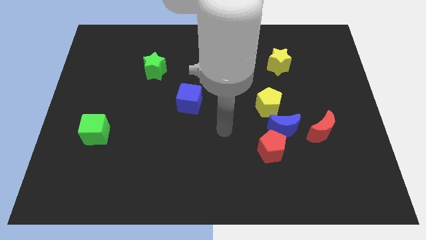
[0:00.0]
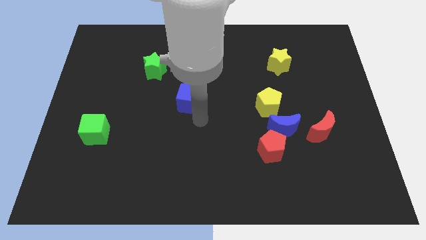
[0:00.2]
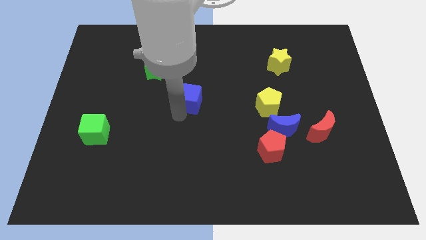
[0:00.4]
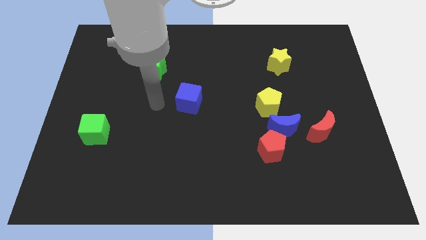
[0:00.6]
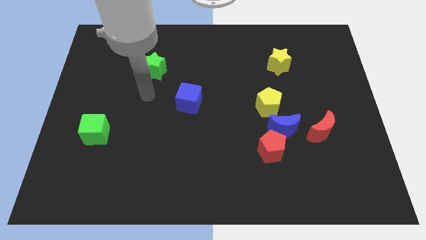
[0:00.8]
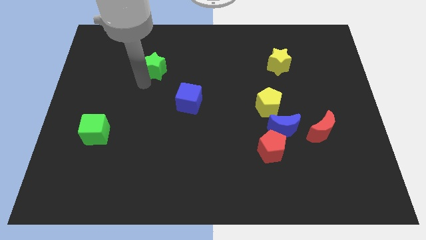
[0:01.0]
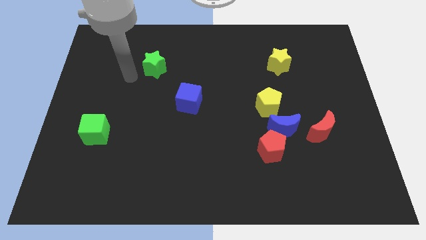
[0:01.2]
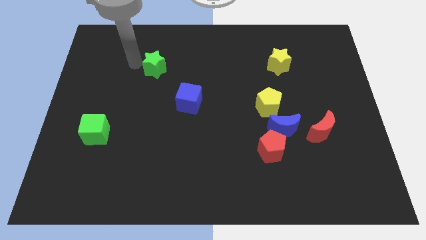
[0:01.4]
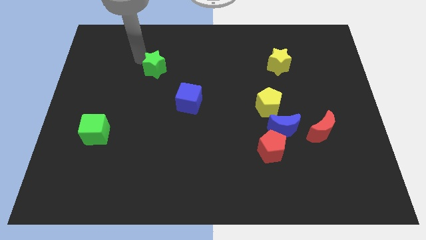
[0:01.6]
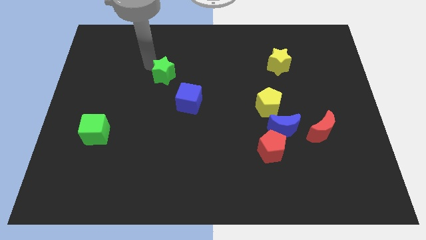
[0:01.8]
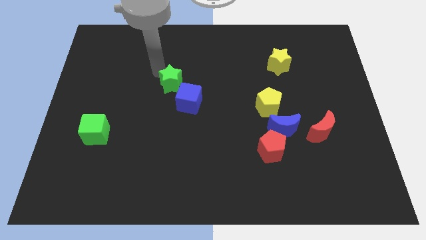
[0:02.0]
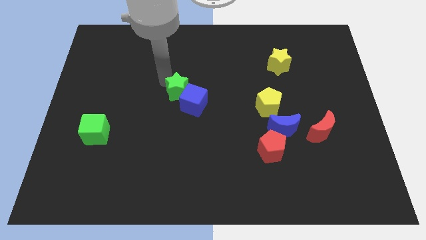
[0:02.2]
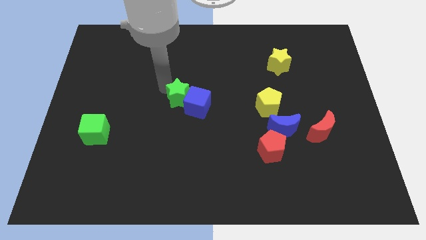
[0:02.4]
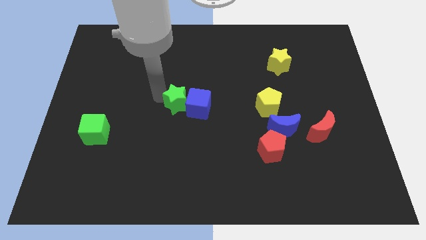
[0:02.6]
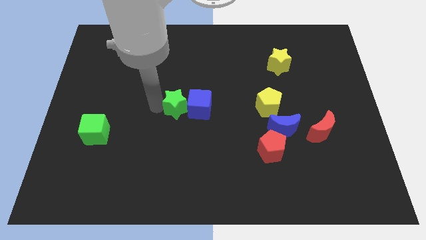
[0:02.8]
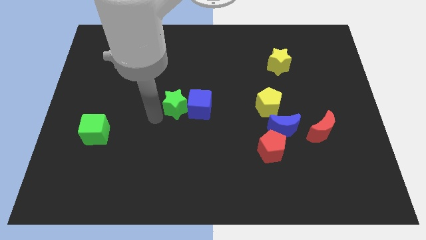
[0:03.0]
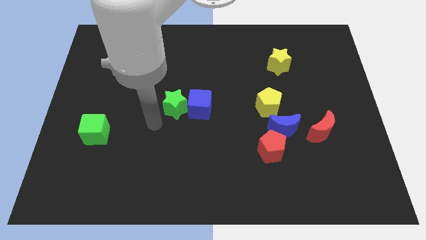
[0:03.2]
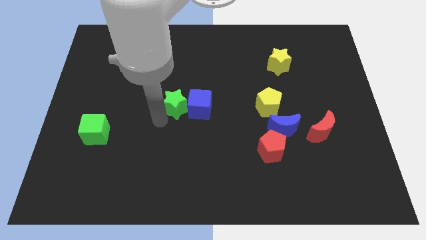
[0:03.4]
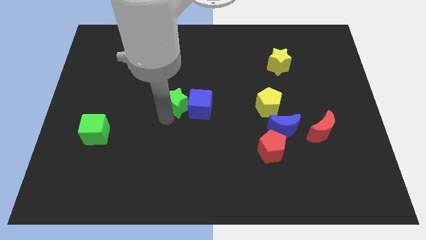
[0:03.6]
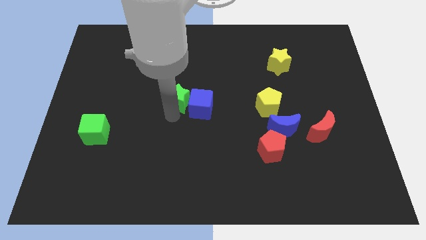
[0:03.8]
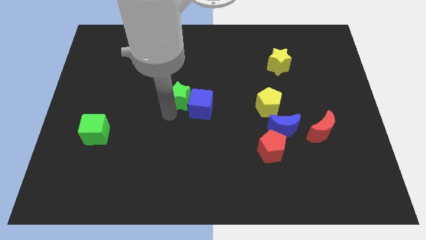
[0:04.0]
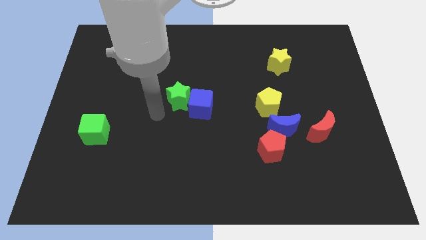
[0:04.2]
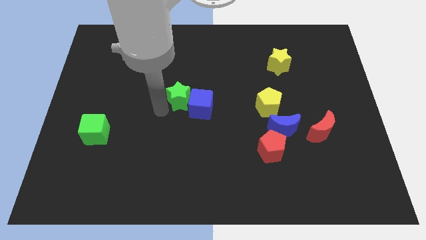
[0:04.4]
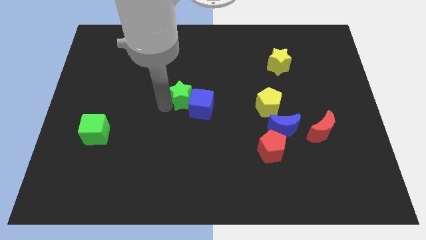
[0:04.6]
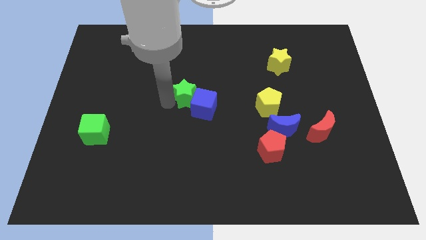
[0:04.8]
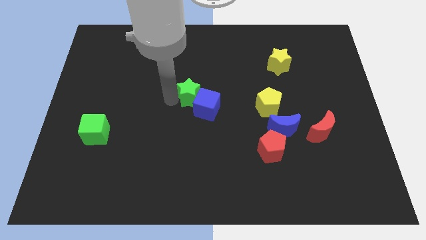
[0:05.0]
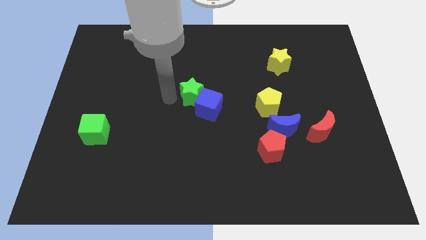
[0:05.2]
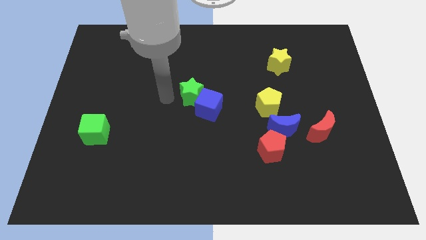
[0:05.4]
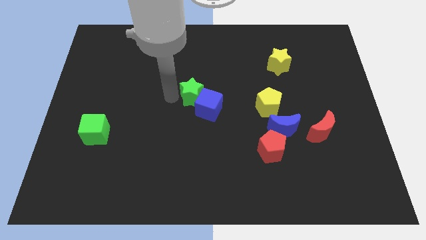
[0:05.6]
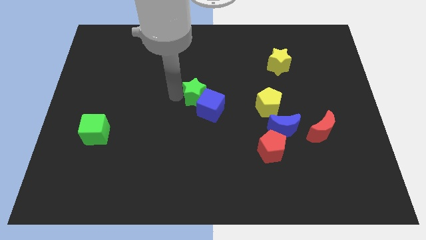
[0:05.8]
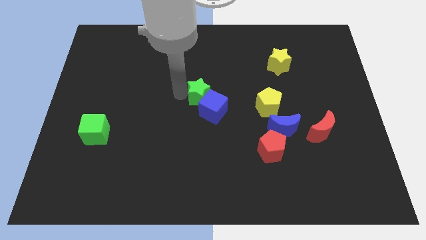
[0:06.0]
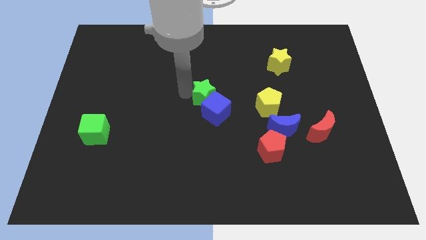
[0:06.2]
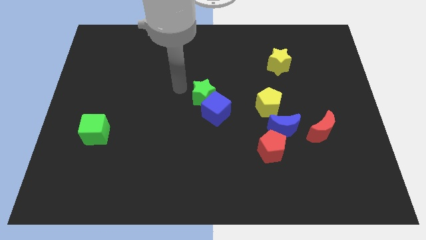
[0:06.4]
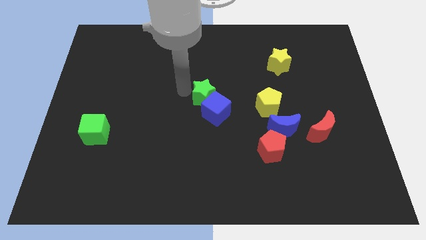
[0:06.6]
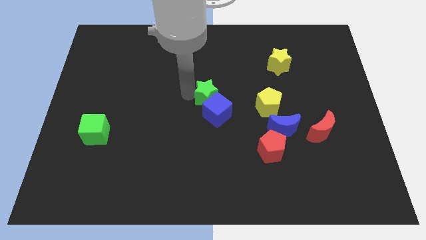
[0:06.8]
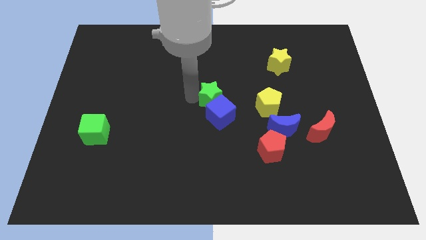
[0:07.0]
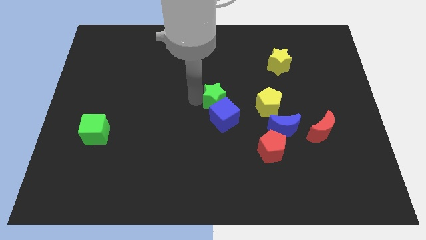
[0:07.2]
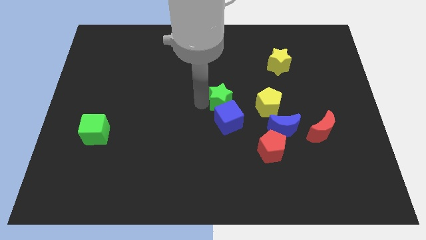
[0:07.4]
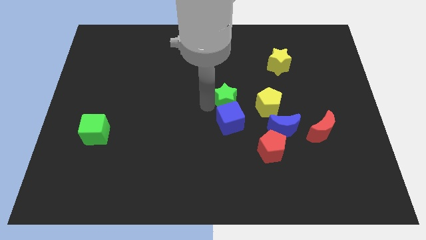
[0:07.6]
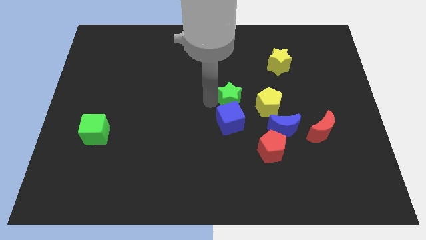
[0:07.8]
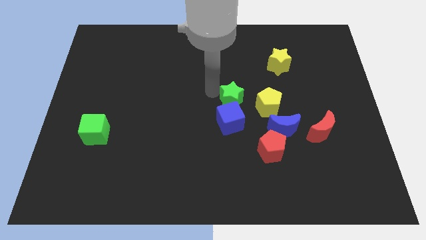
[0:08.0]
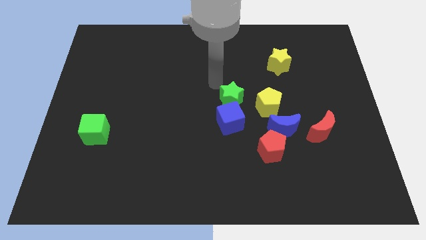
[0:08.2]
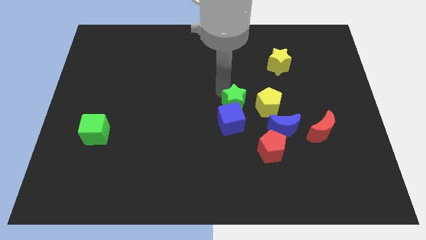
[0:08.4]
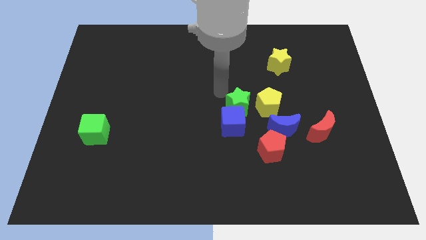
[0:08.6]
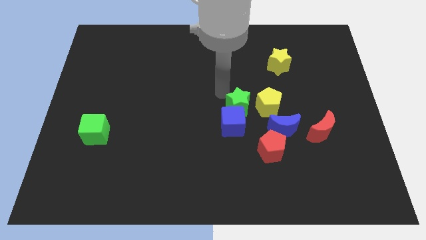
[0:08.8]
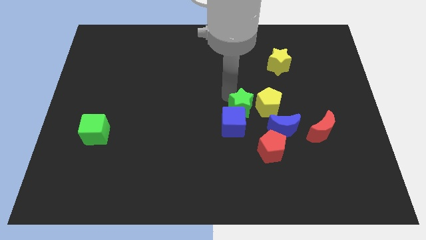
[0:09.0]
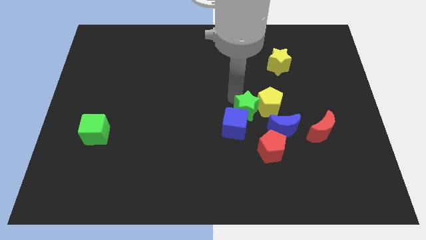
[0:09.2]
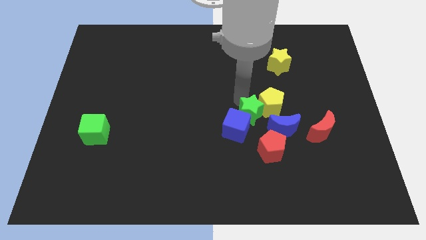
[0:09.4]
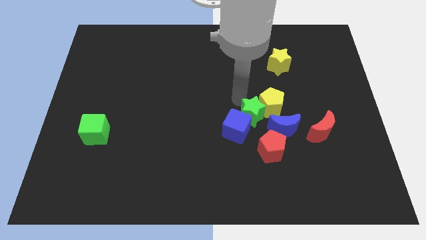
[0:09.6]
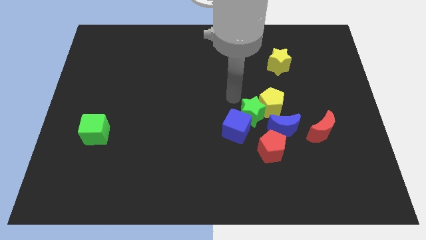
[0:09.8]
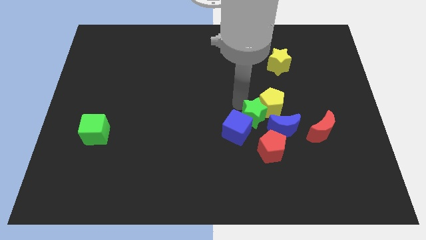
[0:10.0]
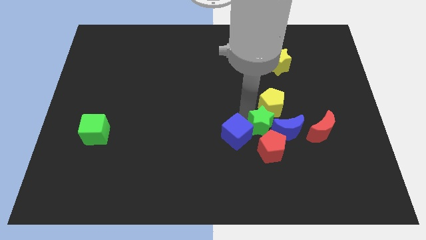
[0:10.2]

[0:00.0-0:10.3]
put the green star close to the blue moon

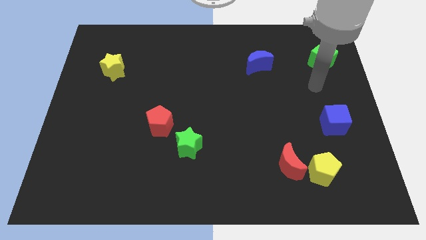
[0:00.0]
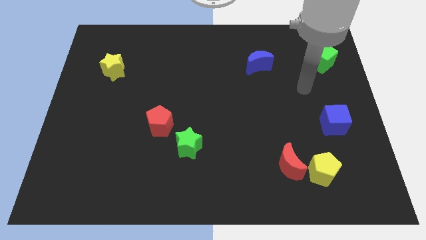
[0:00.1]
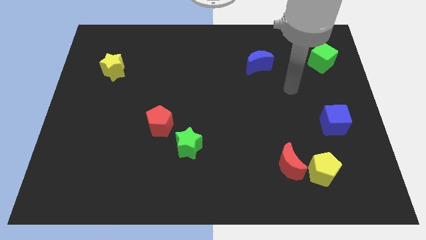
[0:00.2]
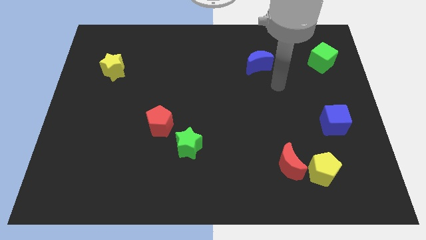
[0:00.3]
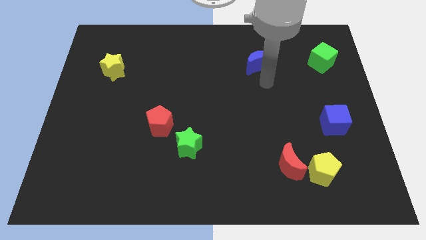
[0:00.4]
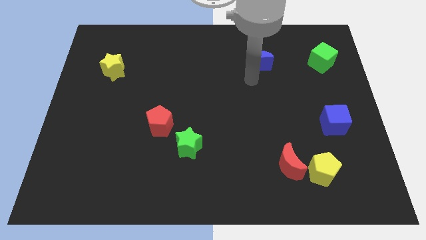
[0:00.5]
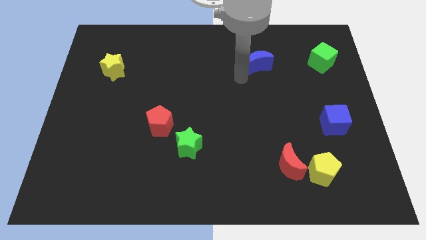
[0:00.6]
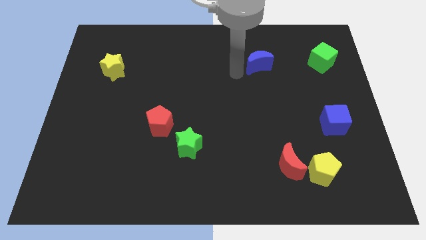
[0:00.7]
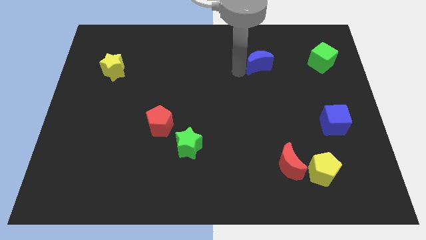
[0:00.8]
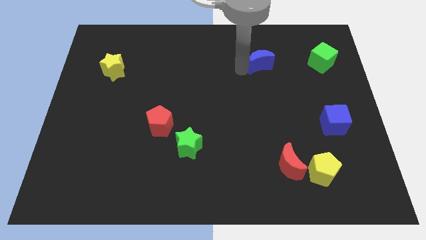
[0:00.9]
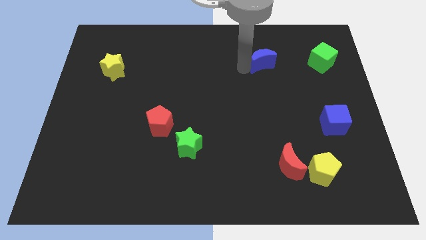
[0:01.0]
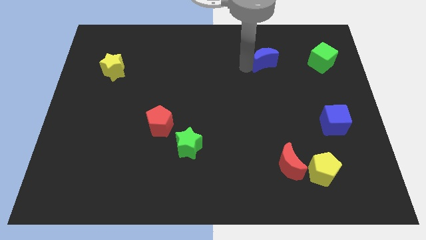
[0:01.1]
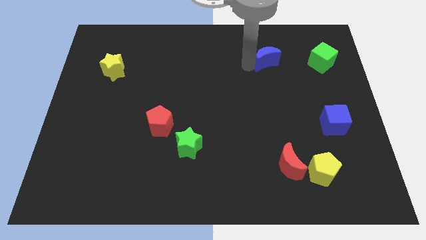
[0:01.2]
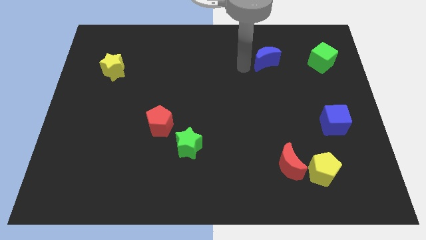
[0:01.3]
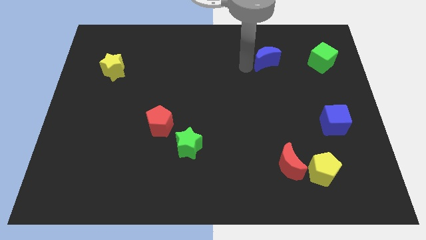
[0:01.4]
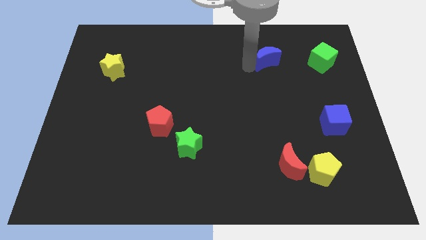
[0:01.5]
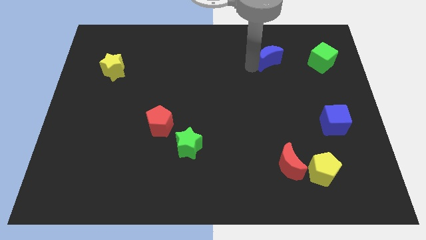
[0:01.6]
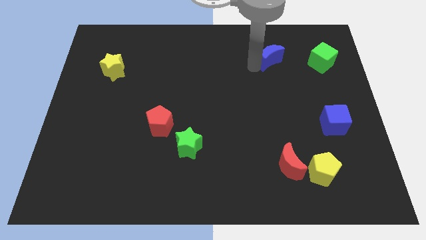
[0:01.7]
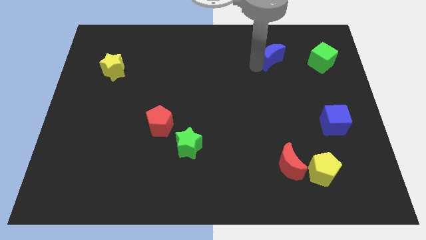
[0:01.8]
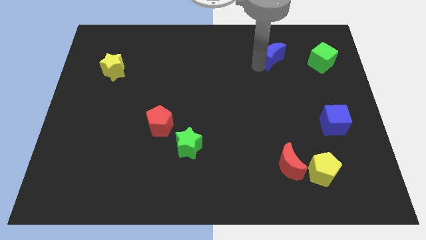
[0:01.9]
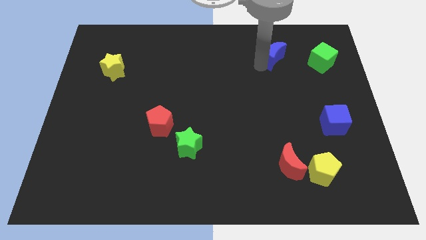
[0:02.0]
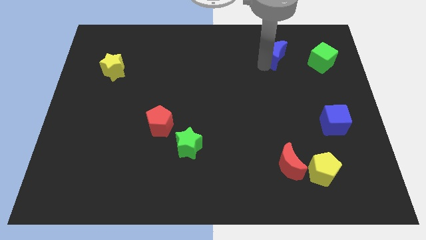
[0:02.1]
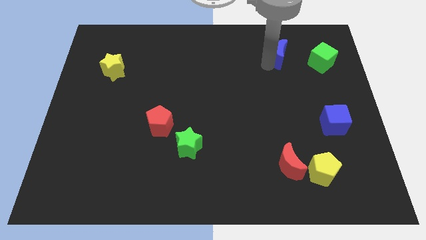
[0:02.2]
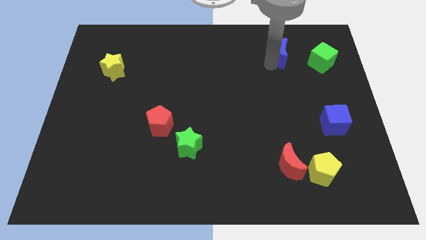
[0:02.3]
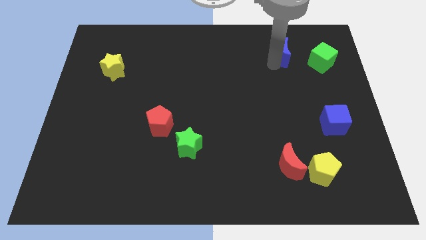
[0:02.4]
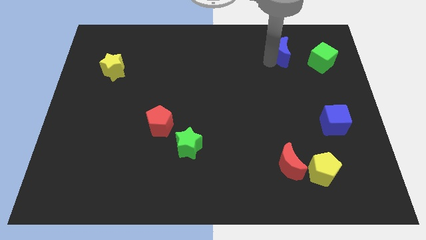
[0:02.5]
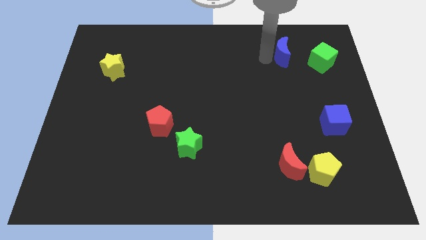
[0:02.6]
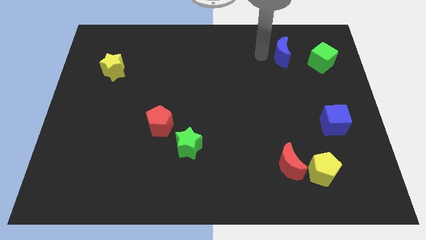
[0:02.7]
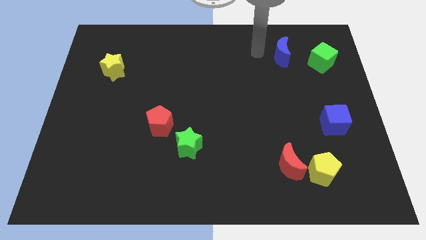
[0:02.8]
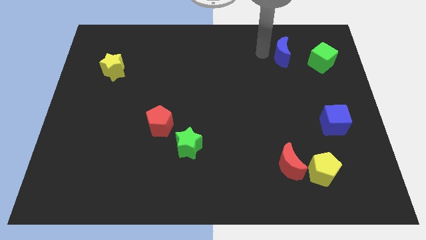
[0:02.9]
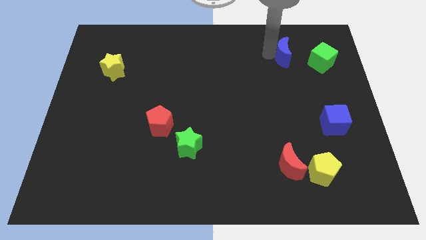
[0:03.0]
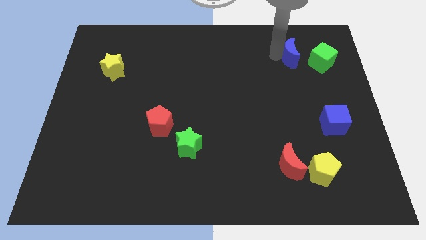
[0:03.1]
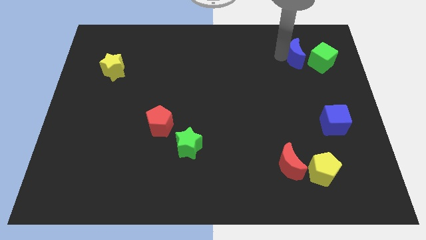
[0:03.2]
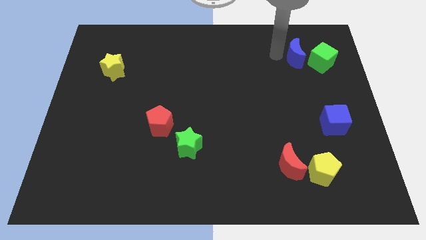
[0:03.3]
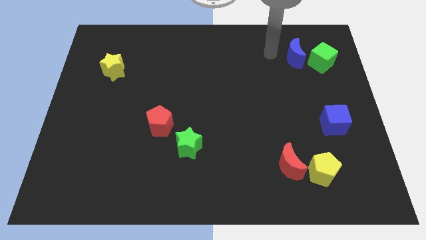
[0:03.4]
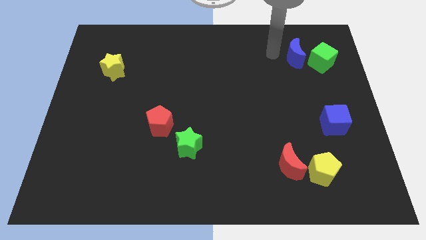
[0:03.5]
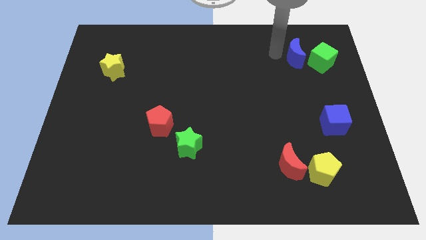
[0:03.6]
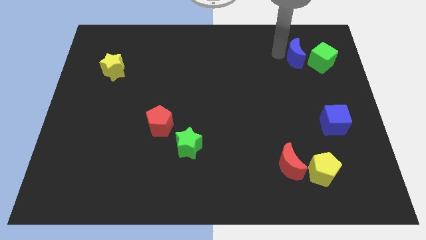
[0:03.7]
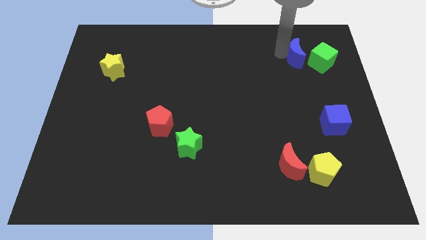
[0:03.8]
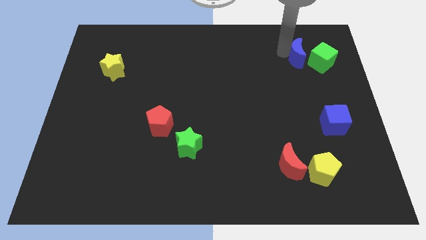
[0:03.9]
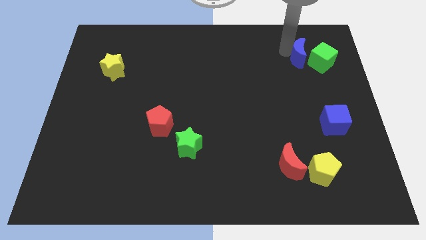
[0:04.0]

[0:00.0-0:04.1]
put the blue moon close to the green cube
